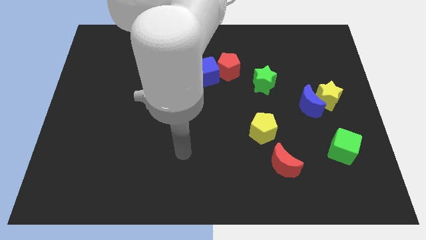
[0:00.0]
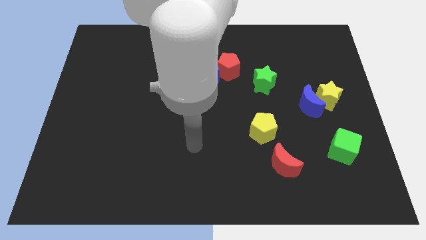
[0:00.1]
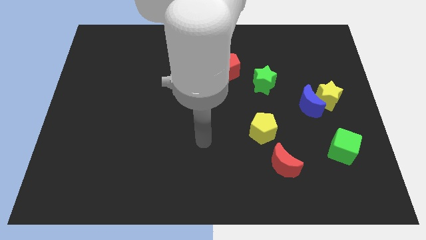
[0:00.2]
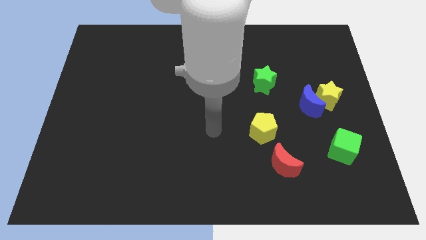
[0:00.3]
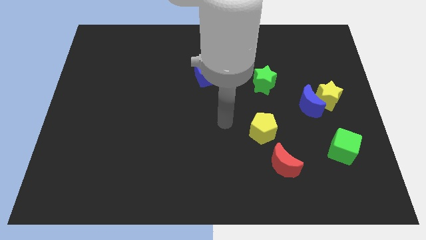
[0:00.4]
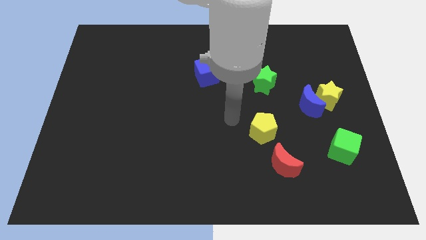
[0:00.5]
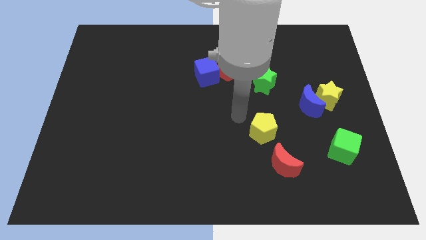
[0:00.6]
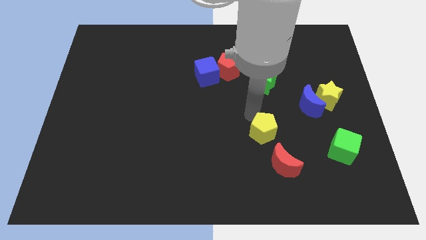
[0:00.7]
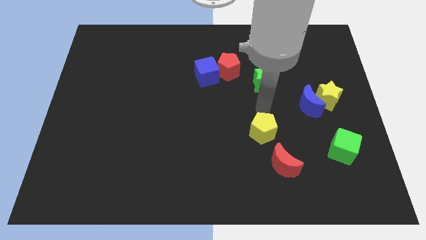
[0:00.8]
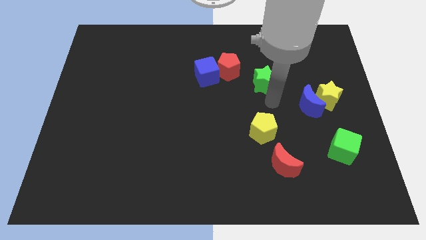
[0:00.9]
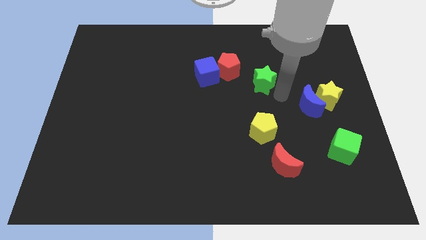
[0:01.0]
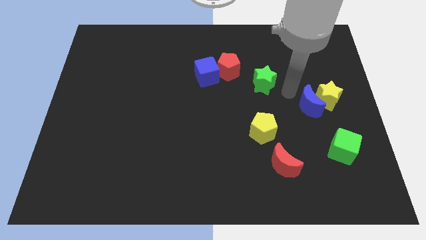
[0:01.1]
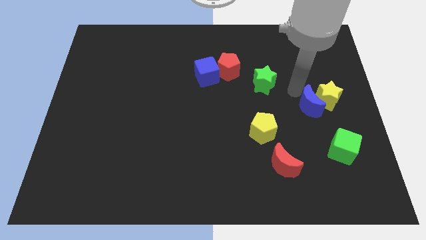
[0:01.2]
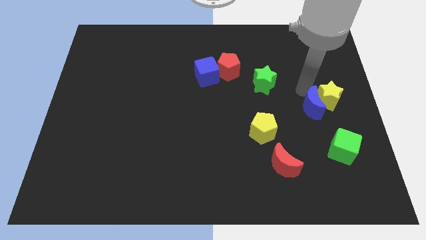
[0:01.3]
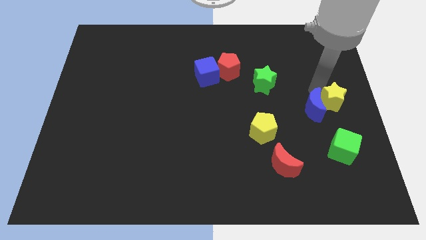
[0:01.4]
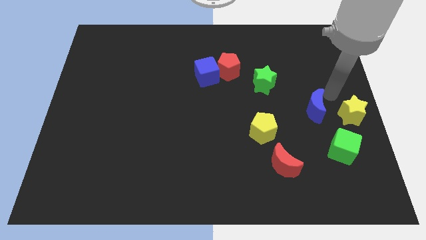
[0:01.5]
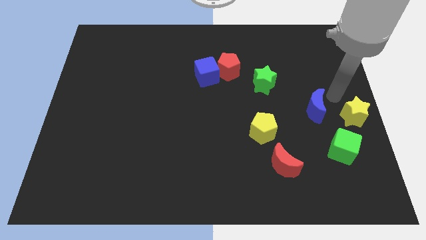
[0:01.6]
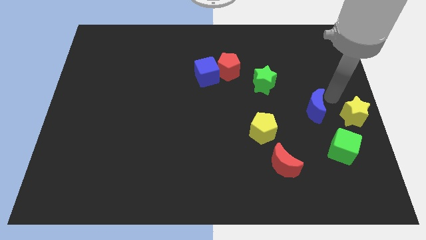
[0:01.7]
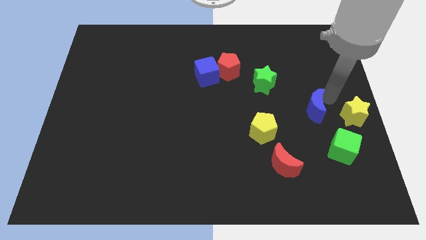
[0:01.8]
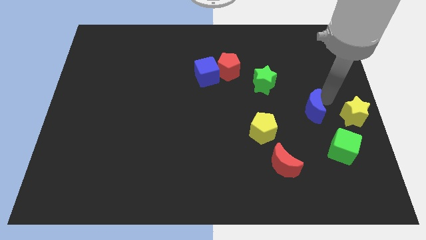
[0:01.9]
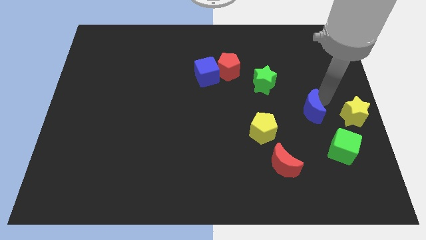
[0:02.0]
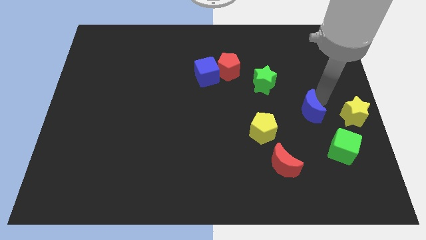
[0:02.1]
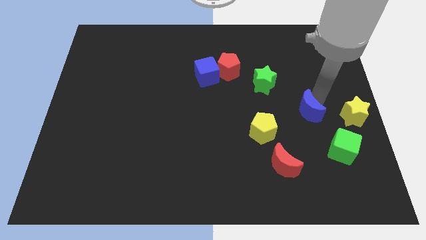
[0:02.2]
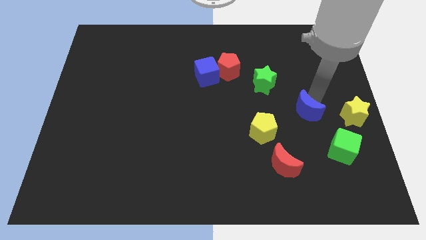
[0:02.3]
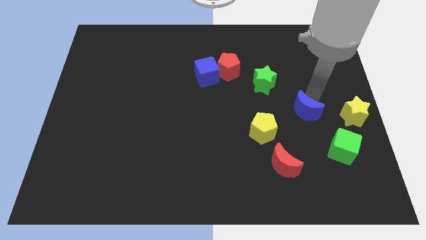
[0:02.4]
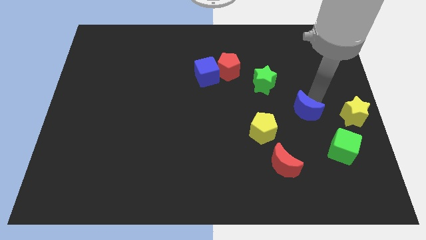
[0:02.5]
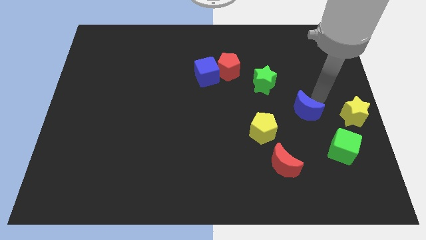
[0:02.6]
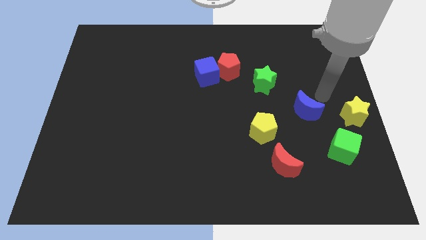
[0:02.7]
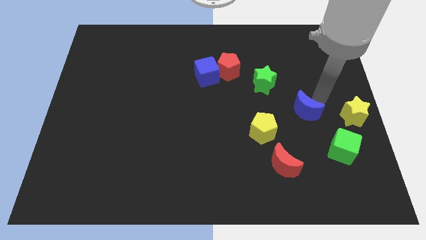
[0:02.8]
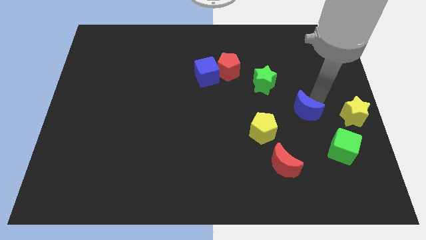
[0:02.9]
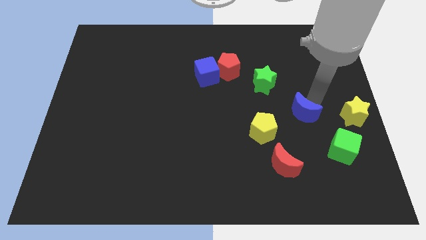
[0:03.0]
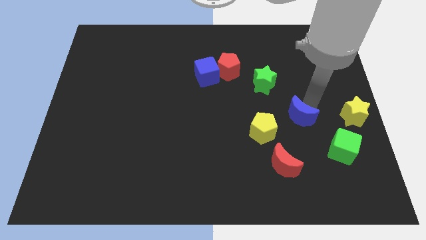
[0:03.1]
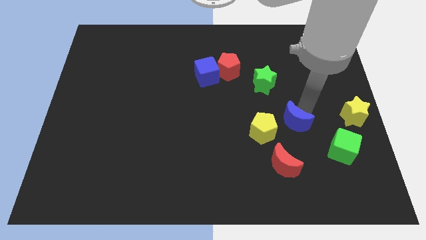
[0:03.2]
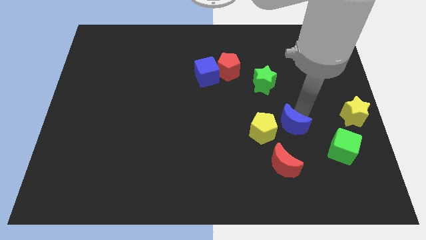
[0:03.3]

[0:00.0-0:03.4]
push the blue moon a little bit diagonally down and to the left

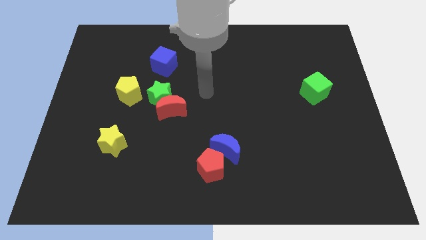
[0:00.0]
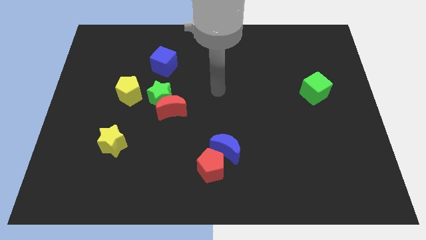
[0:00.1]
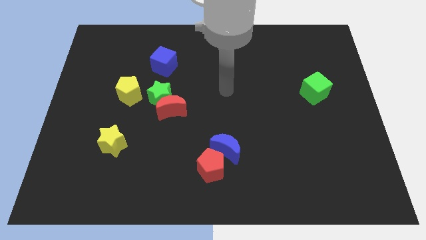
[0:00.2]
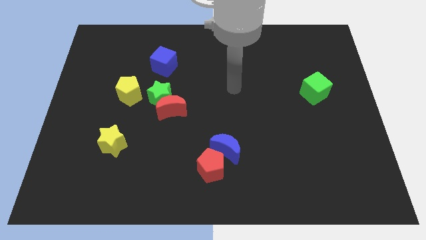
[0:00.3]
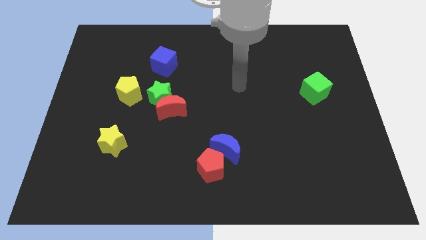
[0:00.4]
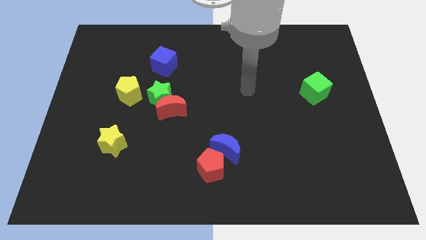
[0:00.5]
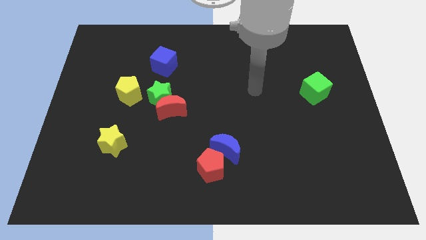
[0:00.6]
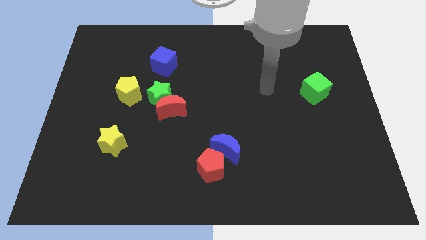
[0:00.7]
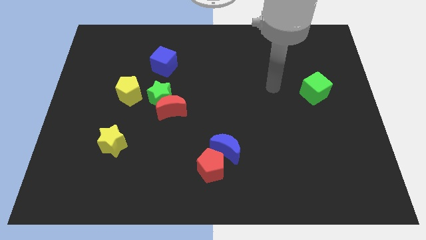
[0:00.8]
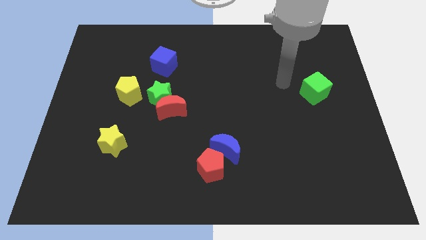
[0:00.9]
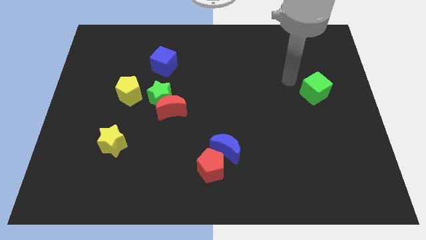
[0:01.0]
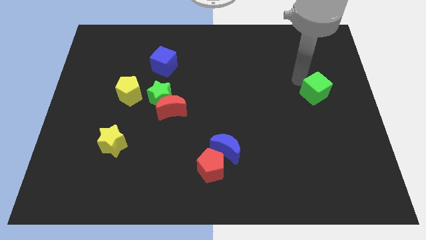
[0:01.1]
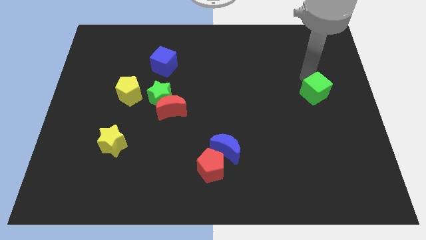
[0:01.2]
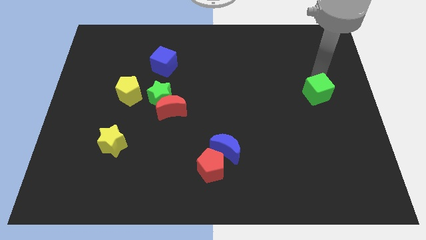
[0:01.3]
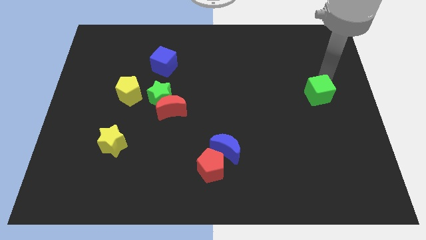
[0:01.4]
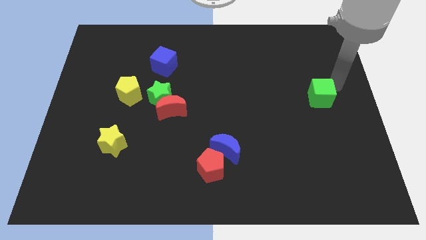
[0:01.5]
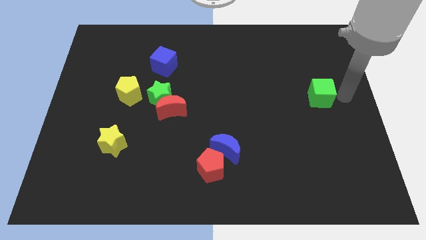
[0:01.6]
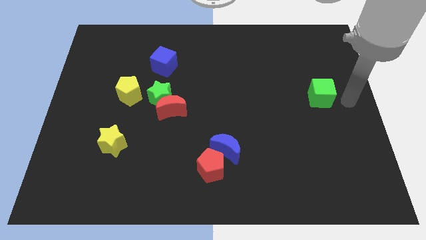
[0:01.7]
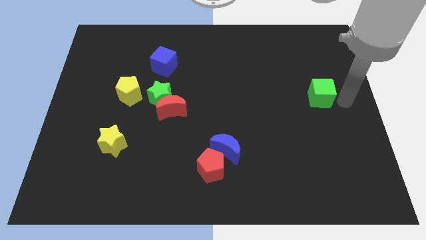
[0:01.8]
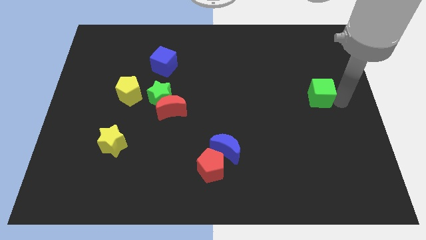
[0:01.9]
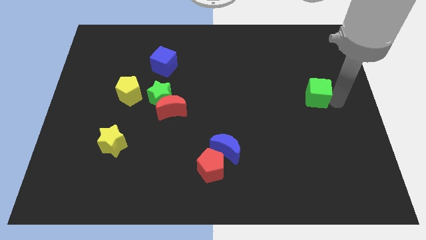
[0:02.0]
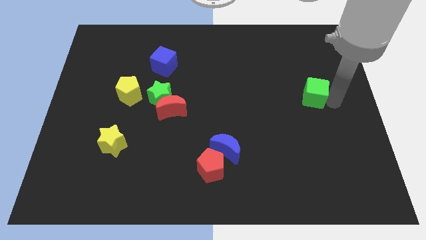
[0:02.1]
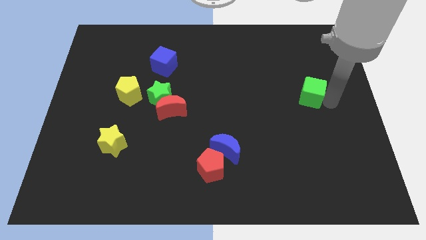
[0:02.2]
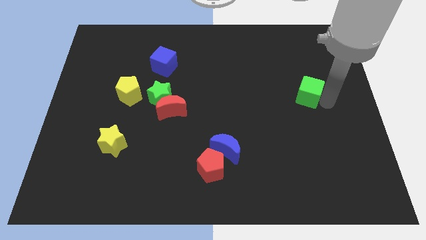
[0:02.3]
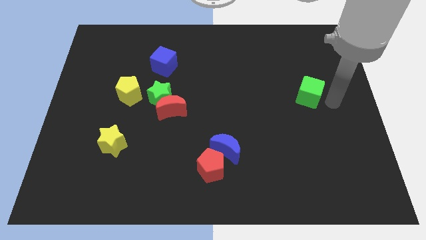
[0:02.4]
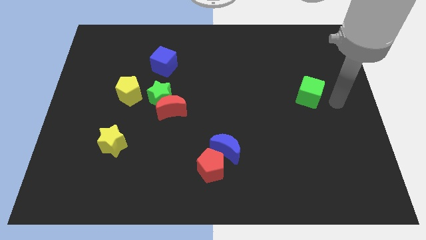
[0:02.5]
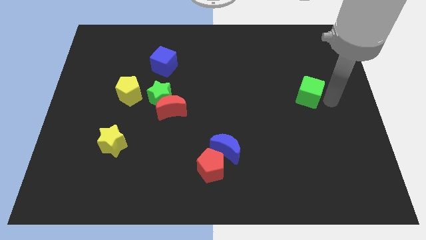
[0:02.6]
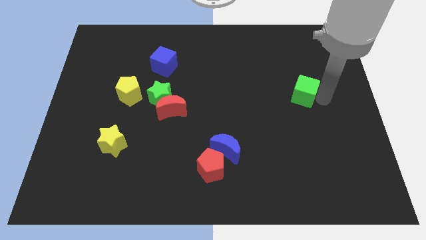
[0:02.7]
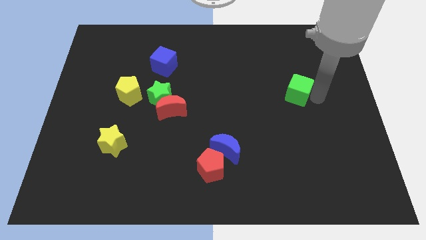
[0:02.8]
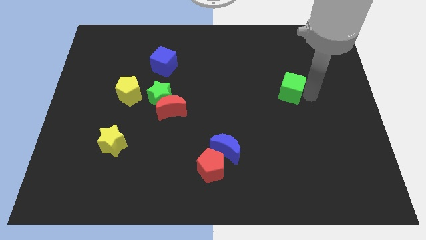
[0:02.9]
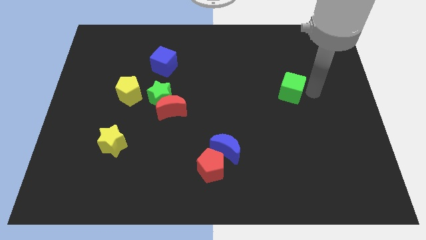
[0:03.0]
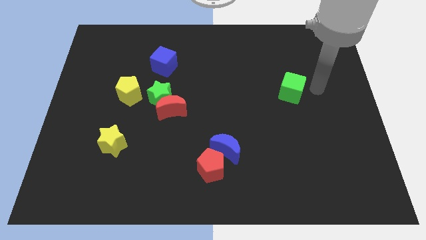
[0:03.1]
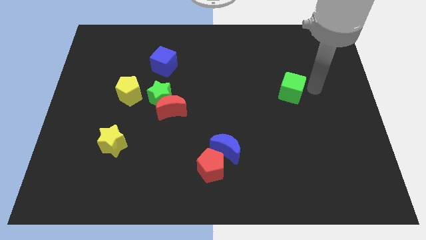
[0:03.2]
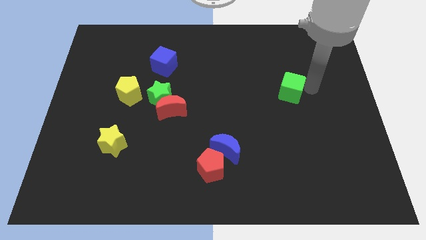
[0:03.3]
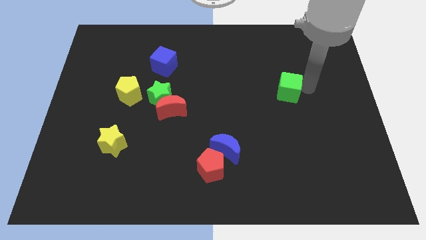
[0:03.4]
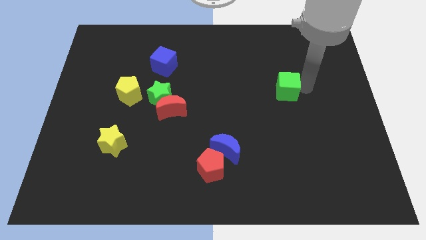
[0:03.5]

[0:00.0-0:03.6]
move the green cube somewhat to the left

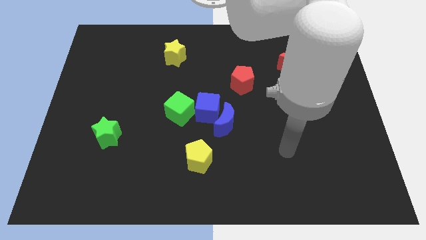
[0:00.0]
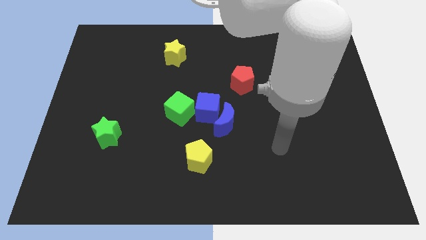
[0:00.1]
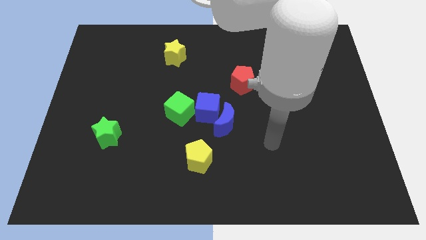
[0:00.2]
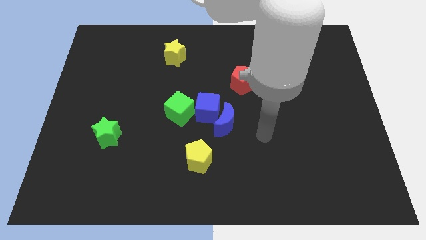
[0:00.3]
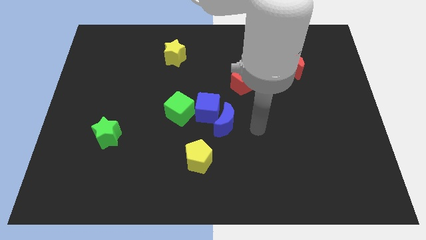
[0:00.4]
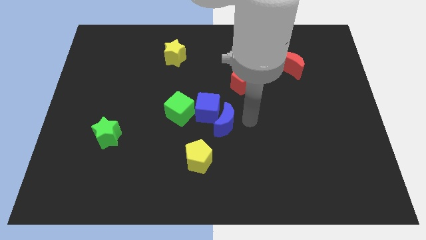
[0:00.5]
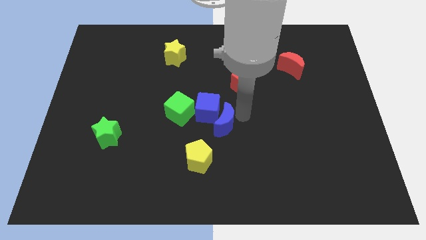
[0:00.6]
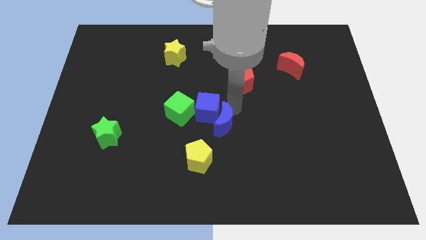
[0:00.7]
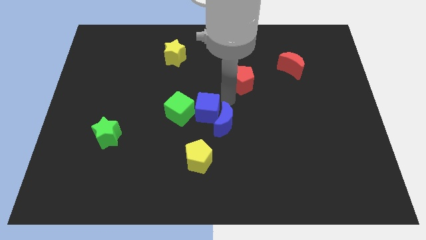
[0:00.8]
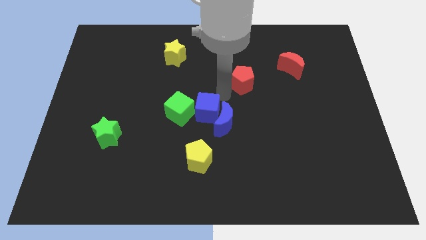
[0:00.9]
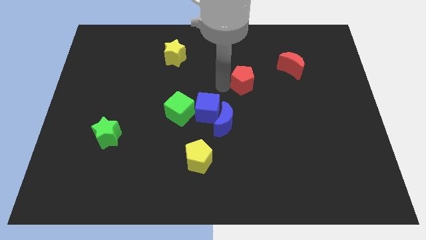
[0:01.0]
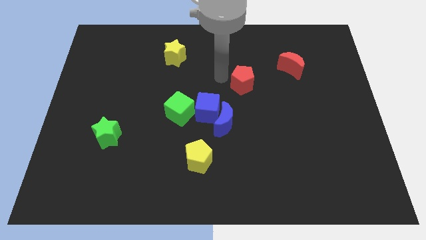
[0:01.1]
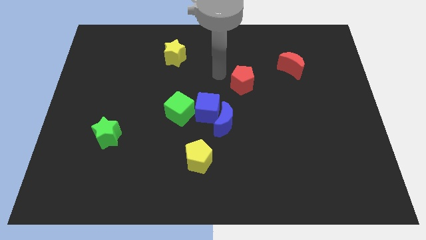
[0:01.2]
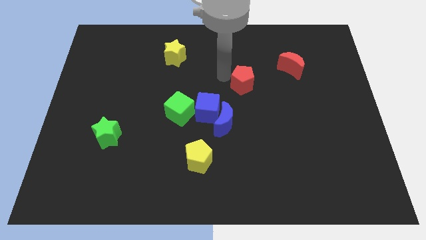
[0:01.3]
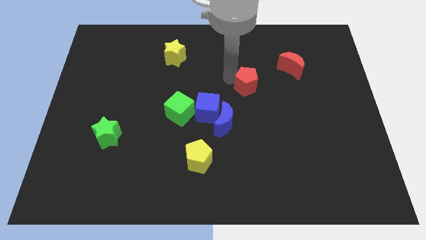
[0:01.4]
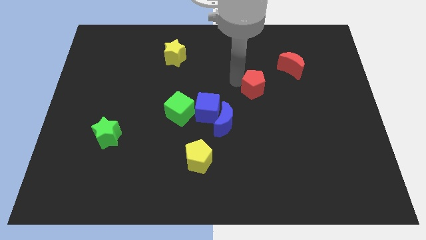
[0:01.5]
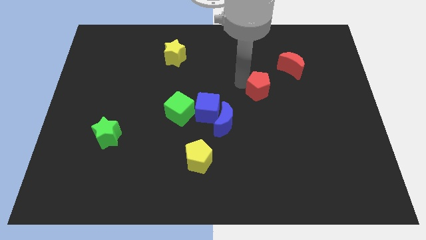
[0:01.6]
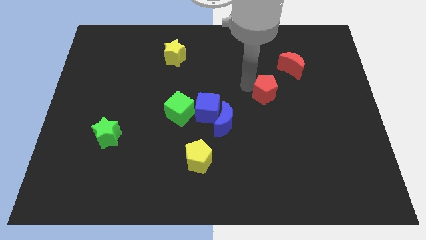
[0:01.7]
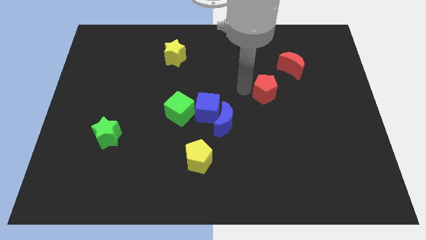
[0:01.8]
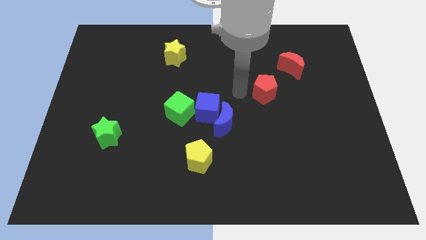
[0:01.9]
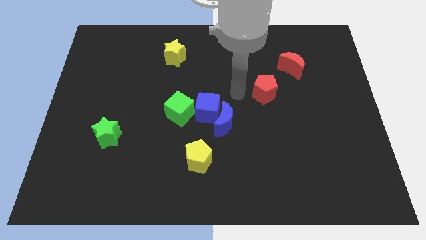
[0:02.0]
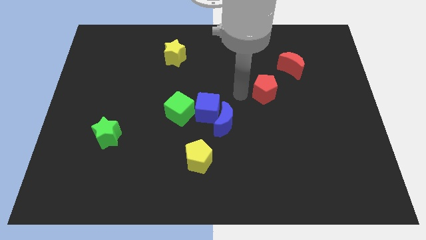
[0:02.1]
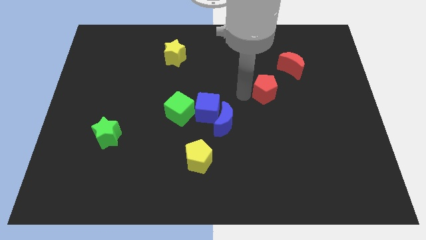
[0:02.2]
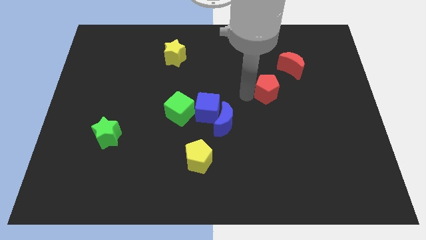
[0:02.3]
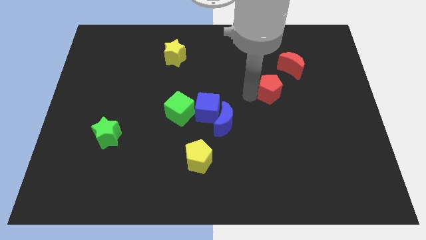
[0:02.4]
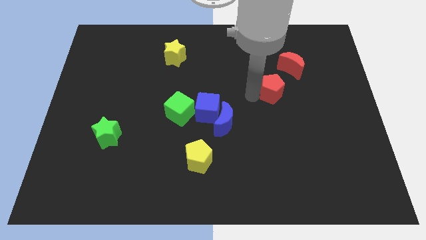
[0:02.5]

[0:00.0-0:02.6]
slightly move the red pentagon to the right
